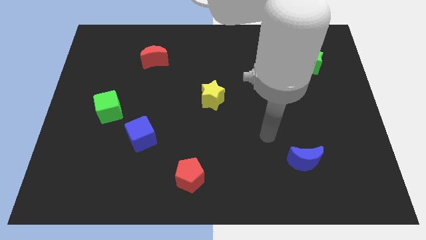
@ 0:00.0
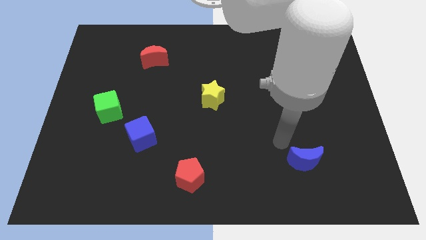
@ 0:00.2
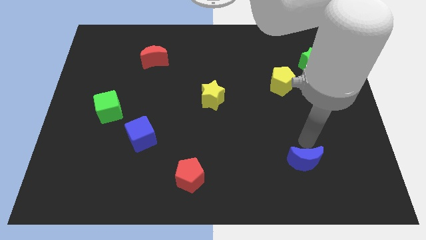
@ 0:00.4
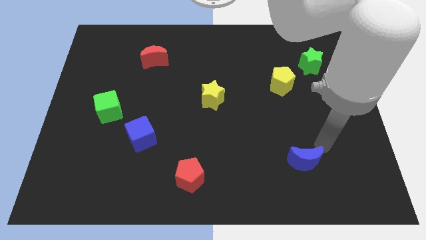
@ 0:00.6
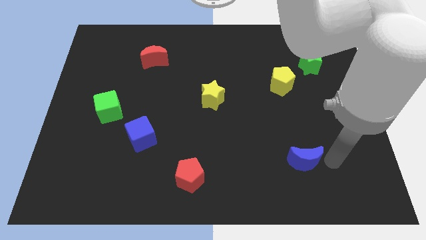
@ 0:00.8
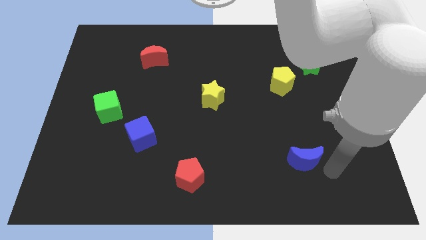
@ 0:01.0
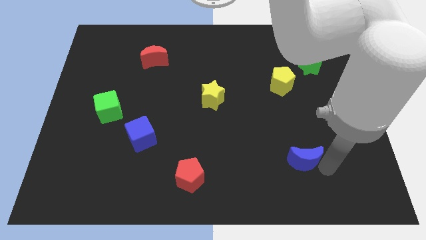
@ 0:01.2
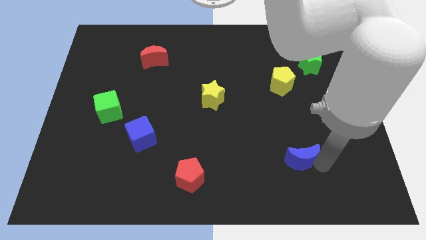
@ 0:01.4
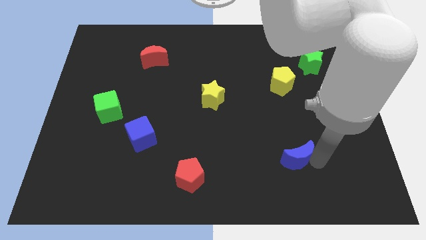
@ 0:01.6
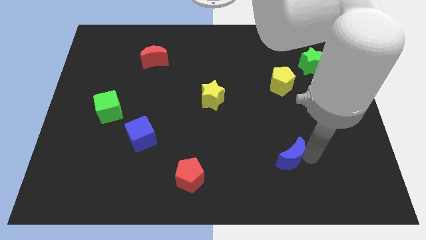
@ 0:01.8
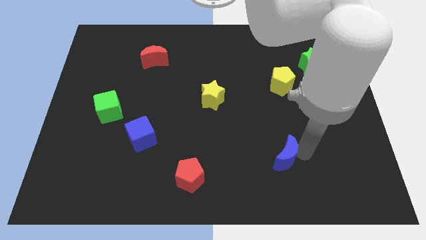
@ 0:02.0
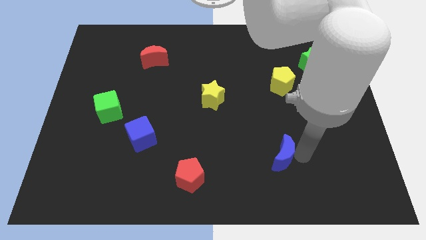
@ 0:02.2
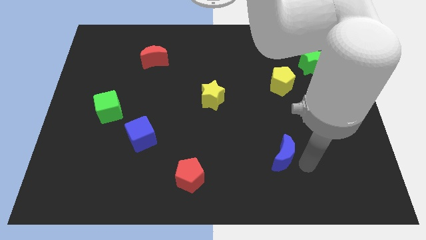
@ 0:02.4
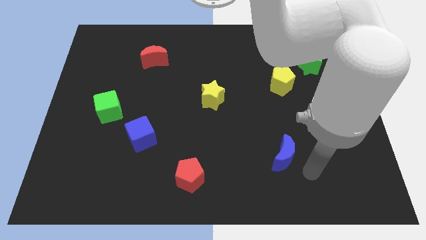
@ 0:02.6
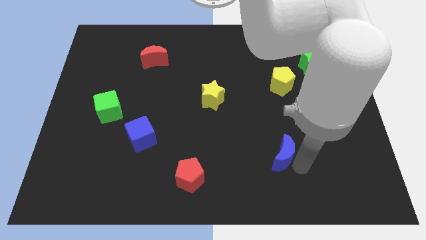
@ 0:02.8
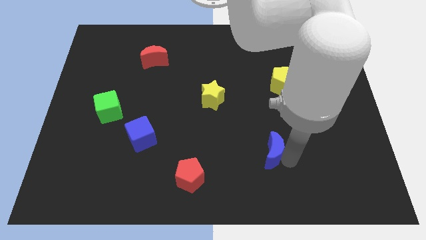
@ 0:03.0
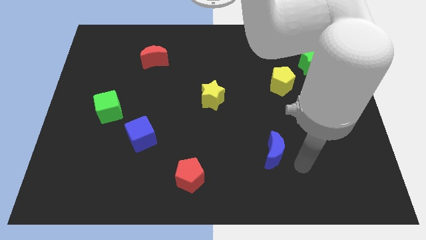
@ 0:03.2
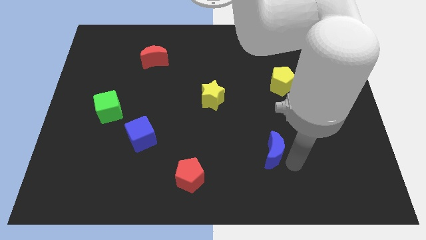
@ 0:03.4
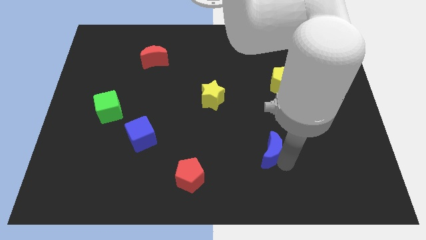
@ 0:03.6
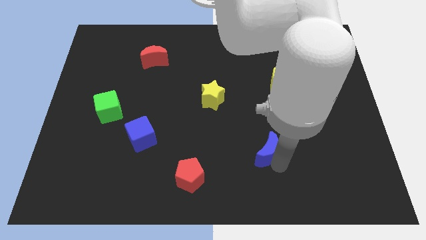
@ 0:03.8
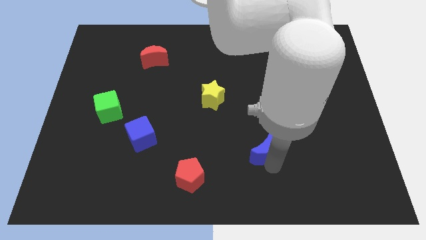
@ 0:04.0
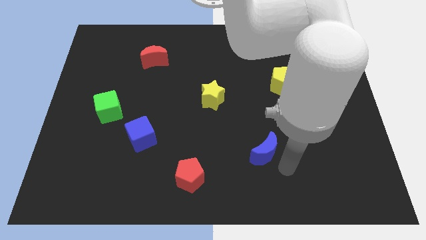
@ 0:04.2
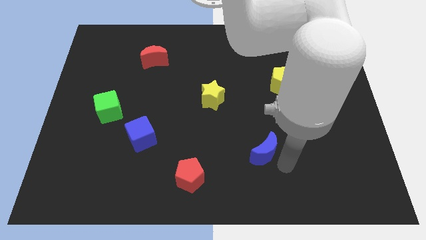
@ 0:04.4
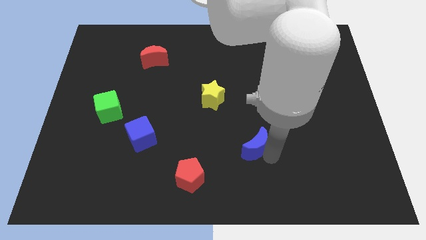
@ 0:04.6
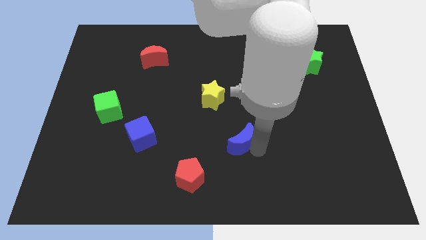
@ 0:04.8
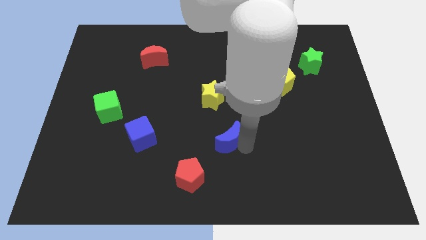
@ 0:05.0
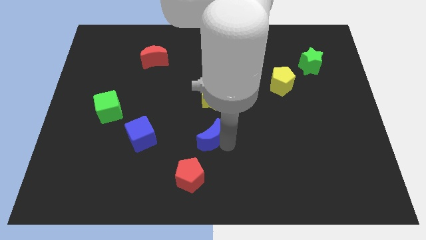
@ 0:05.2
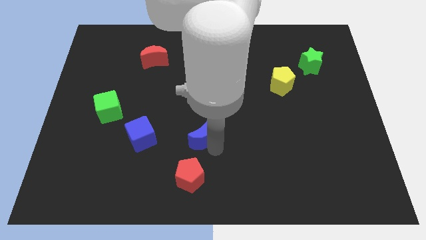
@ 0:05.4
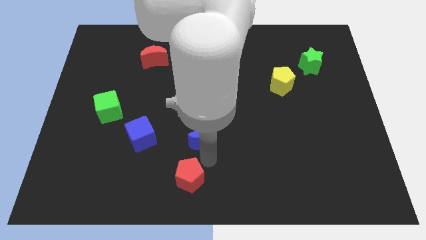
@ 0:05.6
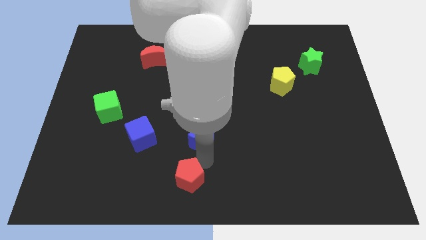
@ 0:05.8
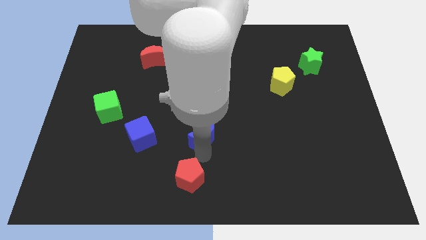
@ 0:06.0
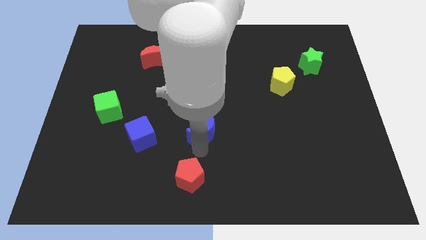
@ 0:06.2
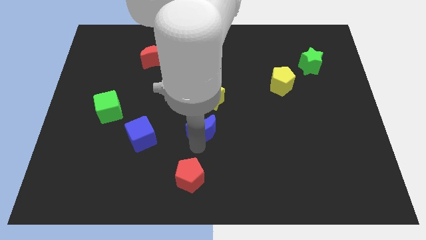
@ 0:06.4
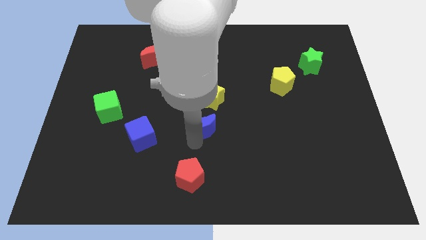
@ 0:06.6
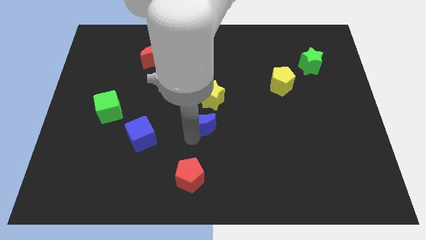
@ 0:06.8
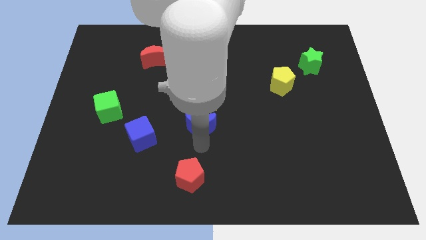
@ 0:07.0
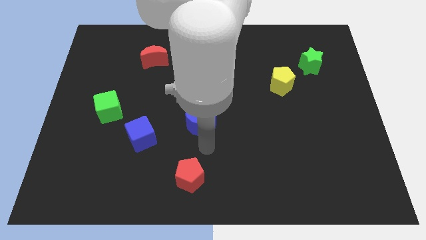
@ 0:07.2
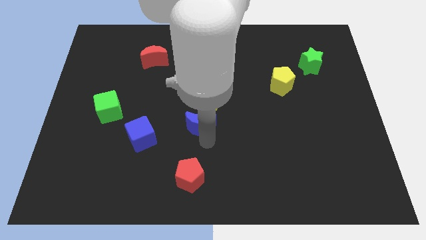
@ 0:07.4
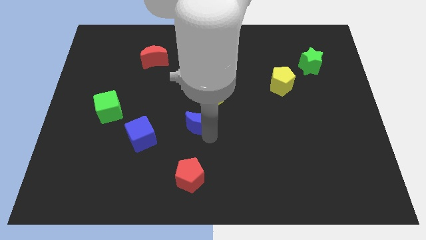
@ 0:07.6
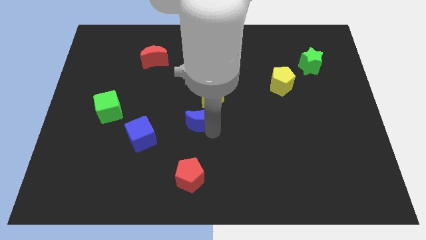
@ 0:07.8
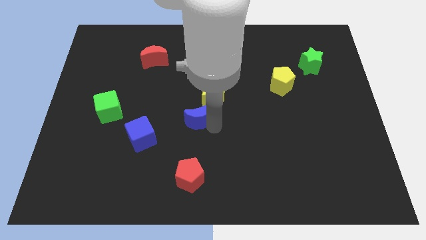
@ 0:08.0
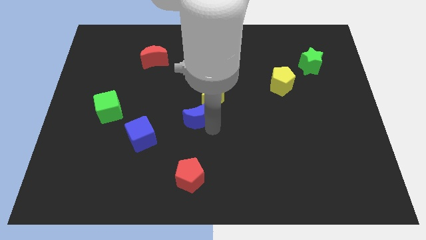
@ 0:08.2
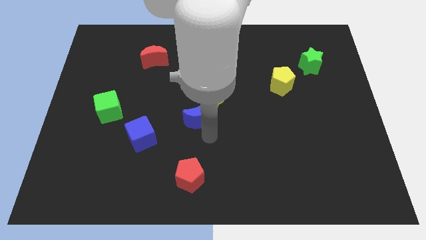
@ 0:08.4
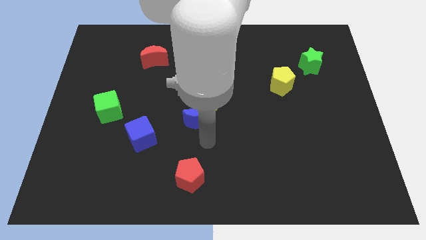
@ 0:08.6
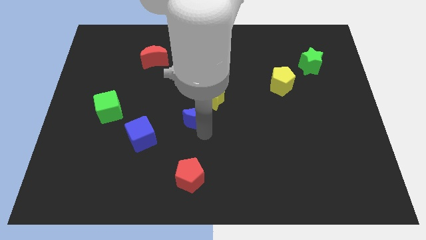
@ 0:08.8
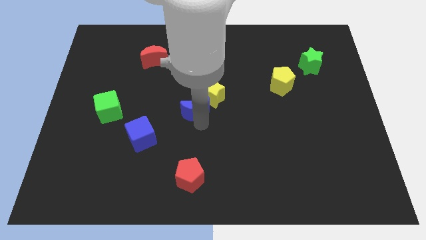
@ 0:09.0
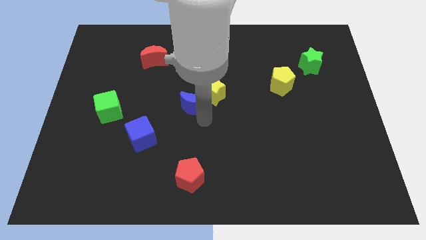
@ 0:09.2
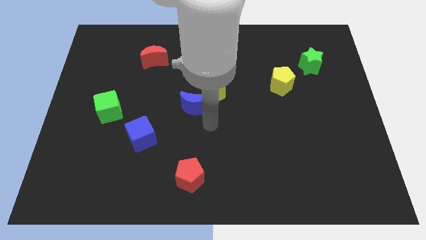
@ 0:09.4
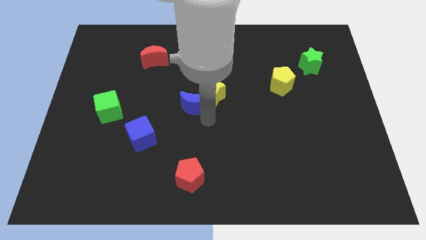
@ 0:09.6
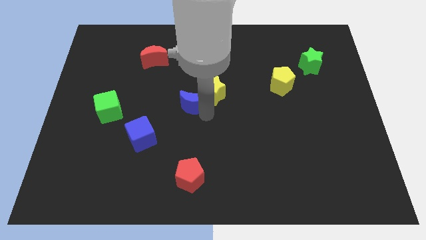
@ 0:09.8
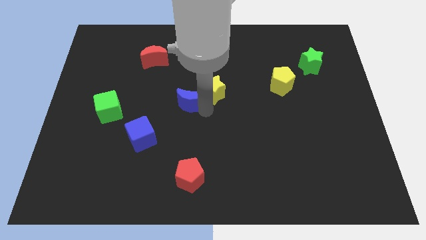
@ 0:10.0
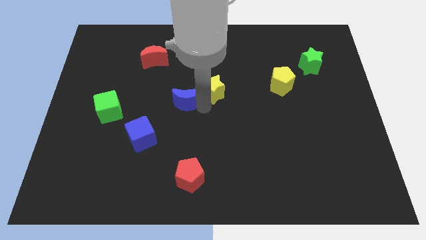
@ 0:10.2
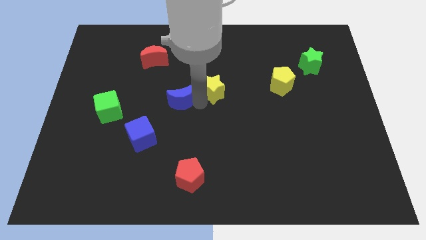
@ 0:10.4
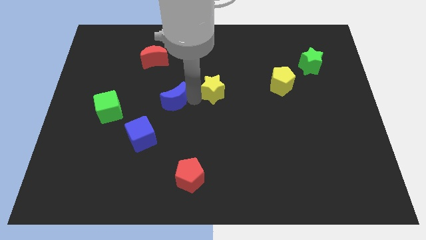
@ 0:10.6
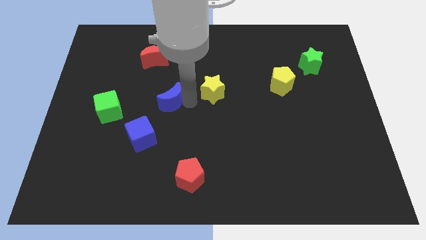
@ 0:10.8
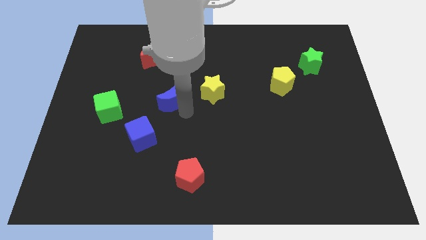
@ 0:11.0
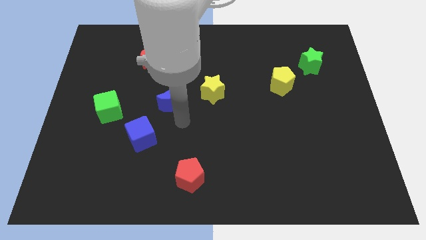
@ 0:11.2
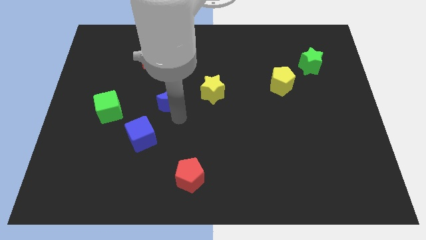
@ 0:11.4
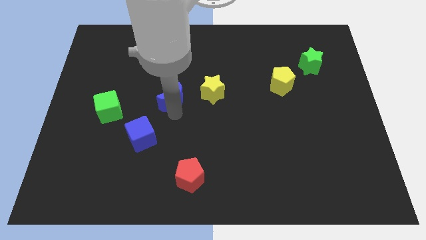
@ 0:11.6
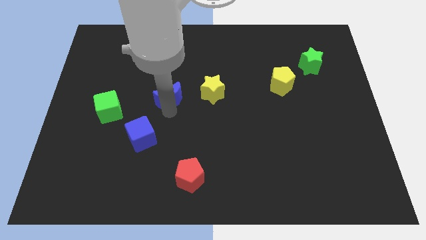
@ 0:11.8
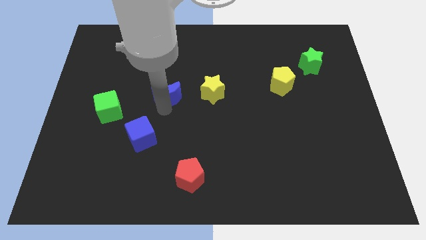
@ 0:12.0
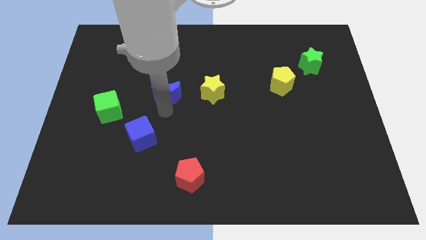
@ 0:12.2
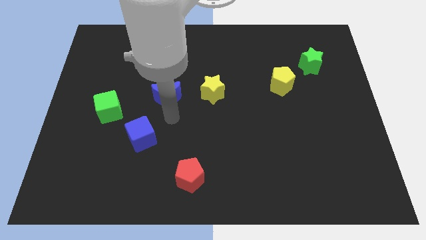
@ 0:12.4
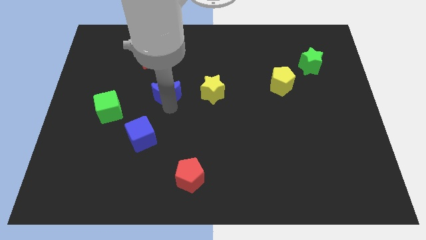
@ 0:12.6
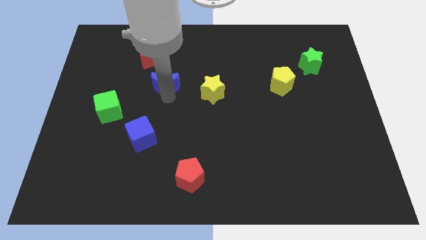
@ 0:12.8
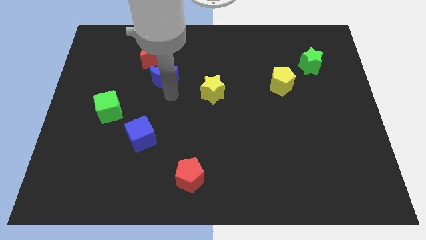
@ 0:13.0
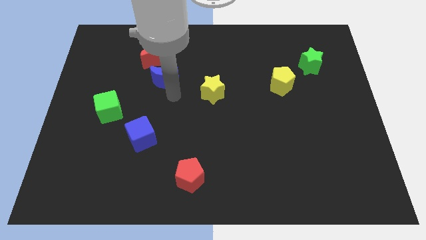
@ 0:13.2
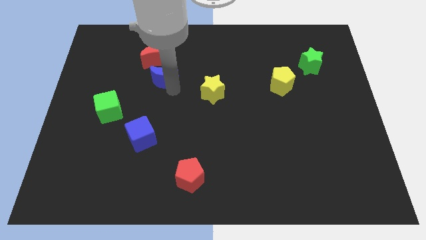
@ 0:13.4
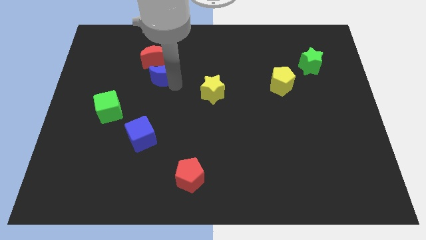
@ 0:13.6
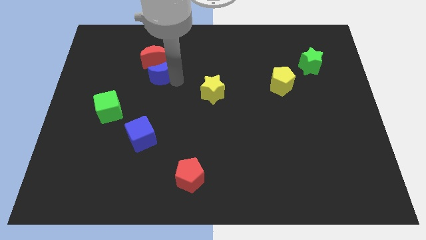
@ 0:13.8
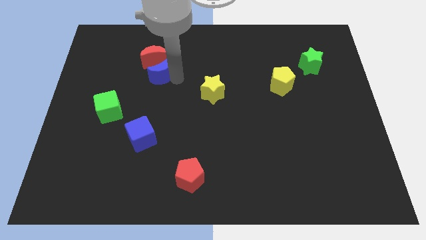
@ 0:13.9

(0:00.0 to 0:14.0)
push the blue moon close to the red moon
